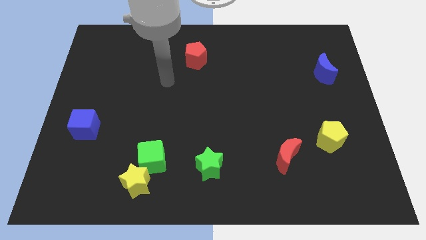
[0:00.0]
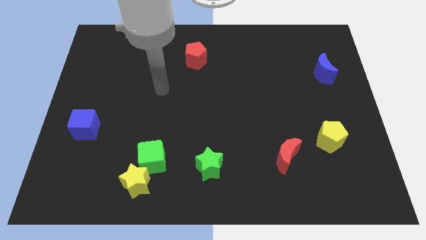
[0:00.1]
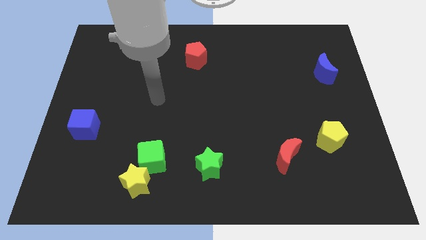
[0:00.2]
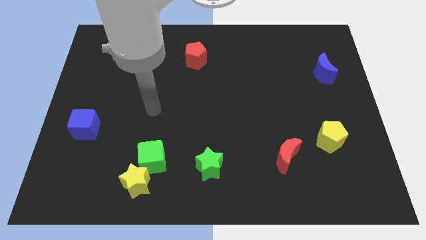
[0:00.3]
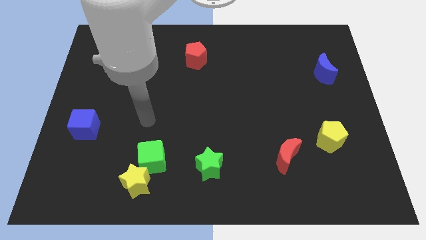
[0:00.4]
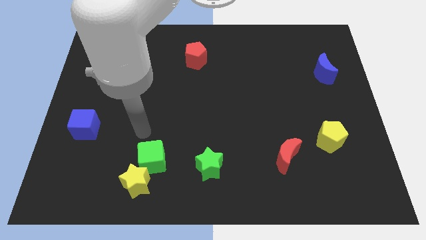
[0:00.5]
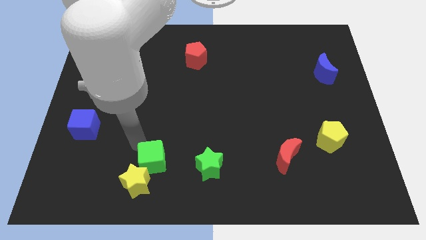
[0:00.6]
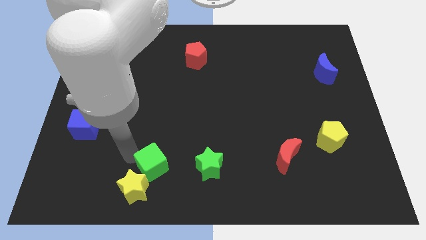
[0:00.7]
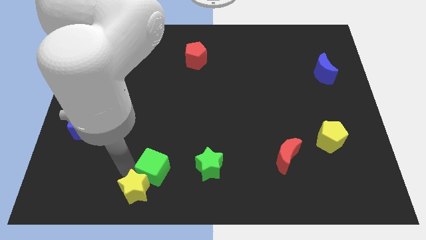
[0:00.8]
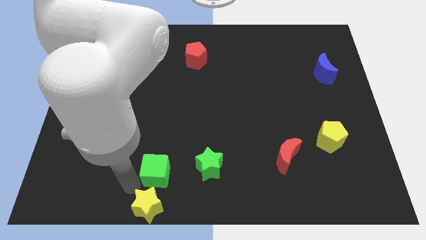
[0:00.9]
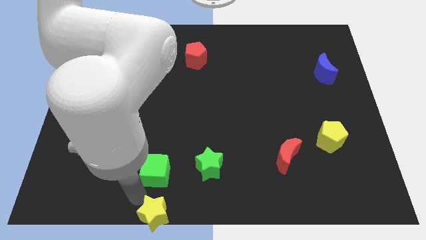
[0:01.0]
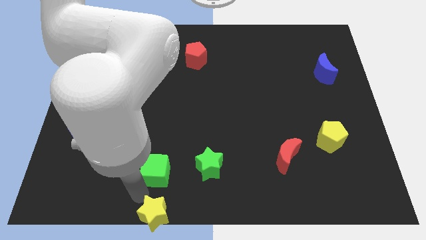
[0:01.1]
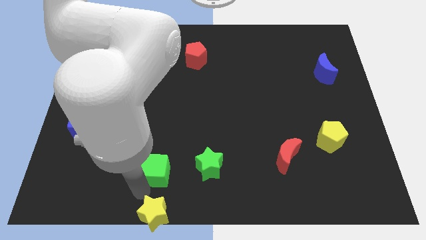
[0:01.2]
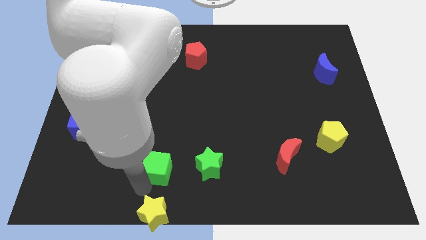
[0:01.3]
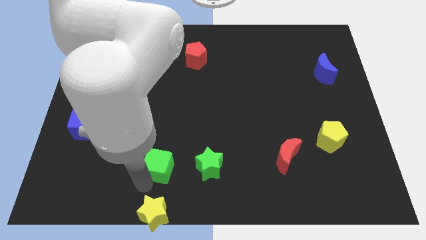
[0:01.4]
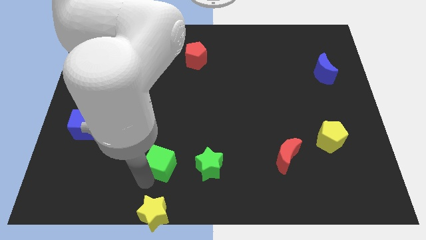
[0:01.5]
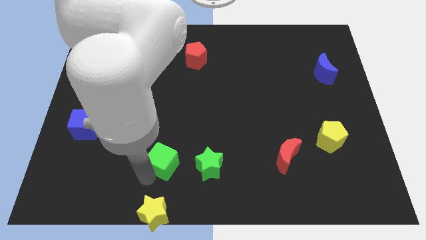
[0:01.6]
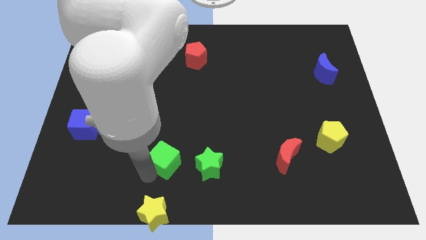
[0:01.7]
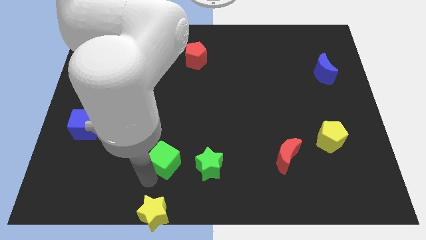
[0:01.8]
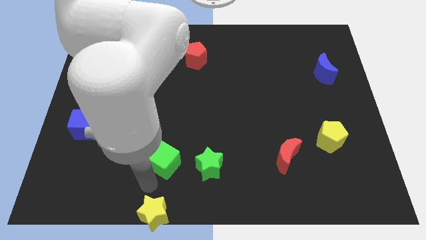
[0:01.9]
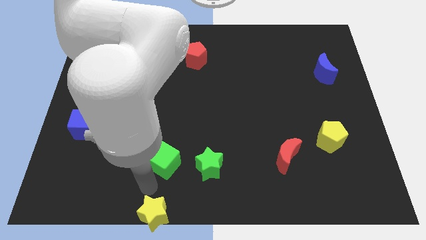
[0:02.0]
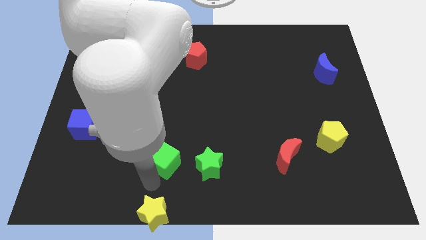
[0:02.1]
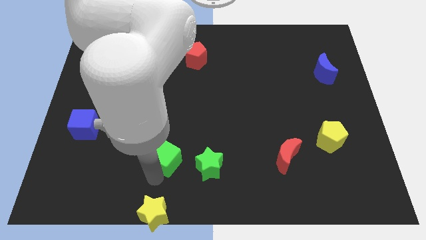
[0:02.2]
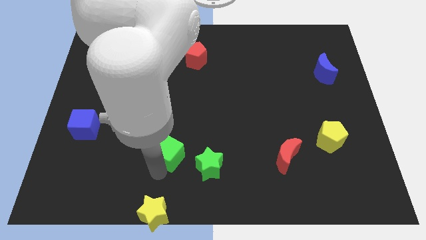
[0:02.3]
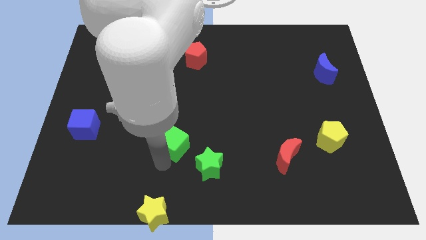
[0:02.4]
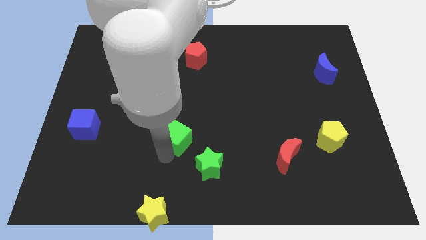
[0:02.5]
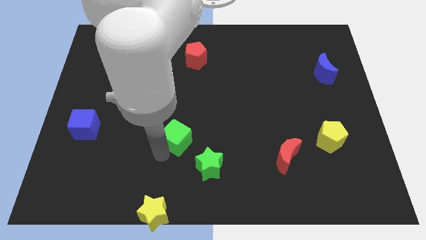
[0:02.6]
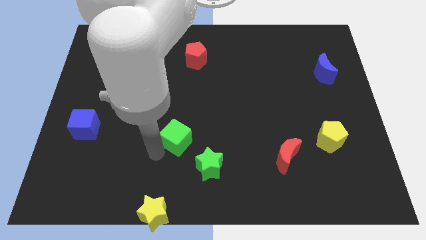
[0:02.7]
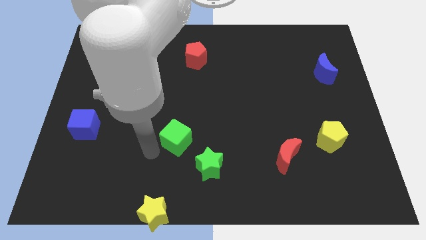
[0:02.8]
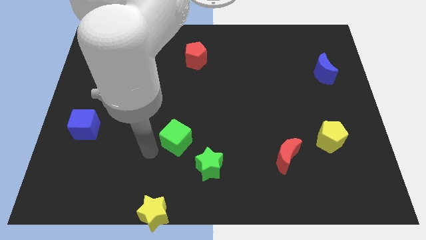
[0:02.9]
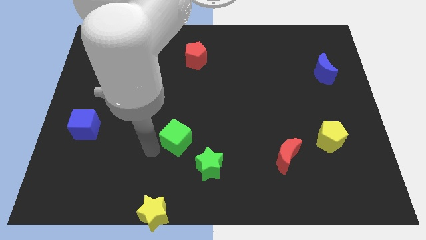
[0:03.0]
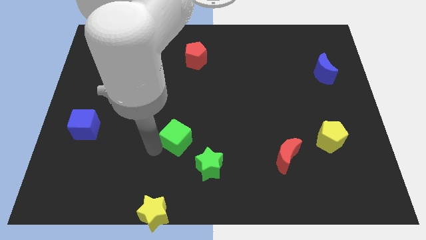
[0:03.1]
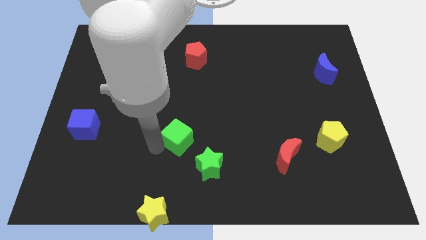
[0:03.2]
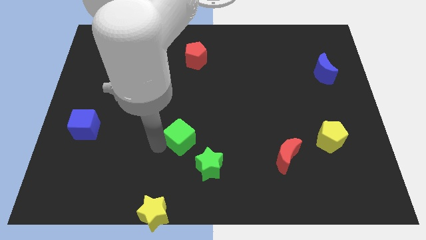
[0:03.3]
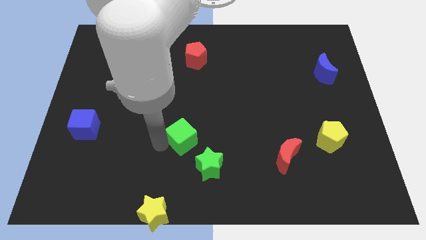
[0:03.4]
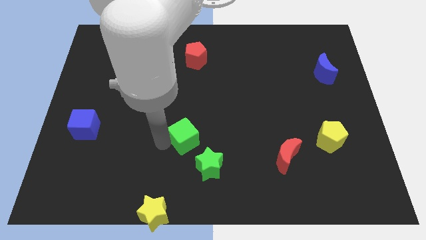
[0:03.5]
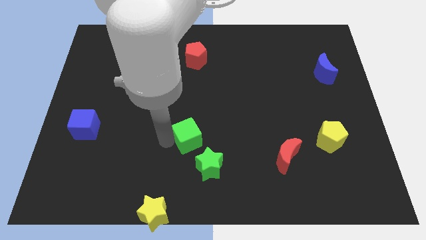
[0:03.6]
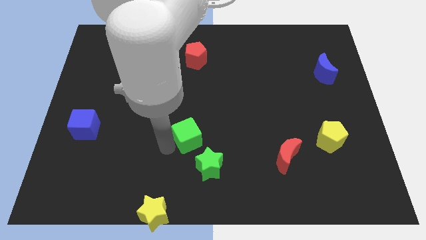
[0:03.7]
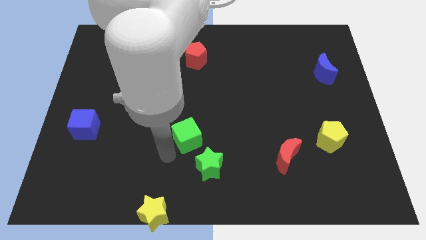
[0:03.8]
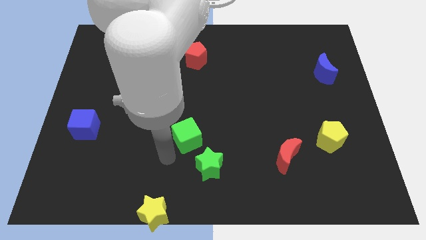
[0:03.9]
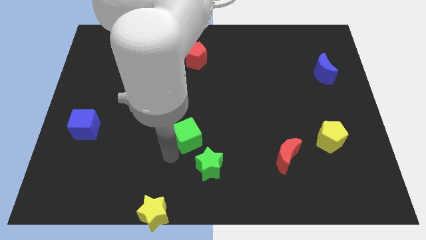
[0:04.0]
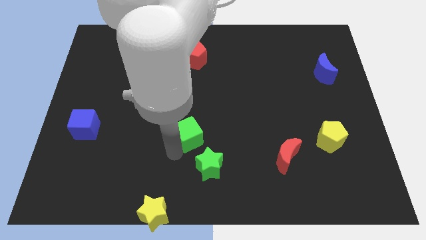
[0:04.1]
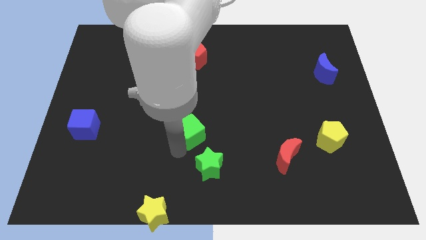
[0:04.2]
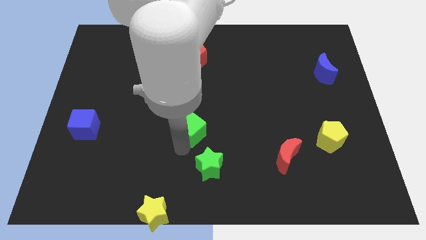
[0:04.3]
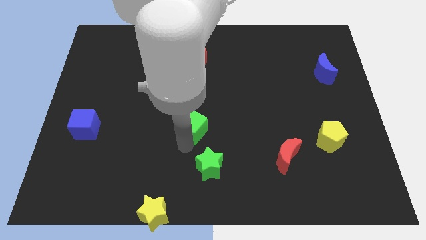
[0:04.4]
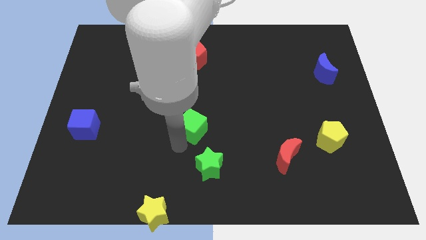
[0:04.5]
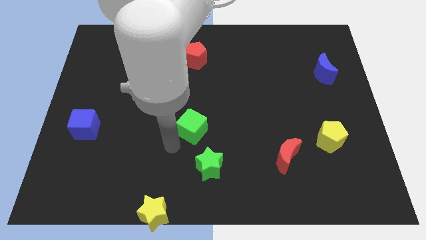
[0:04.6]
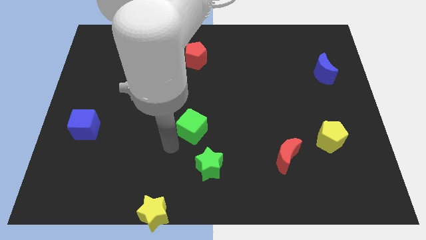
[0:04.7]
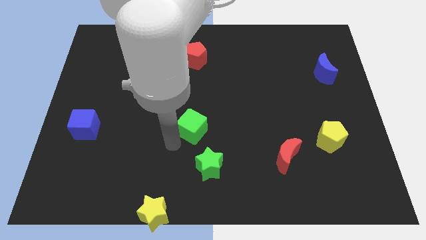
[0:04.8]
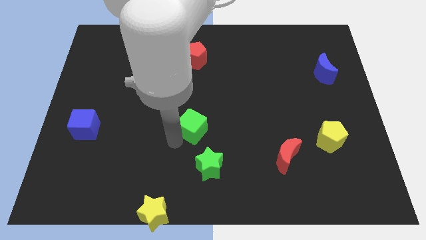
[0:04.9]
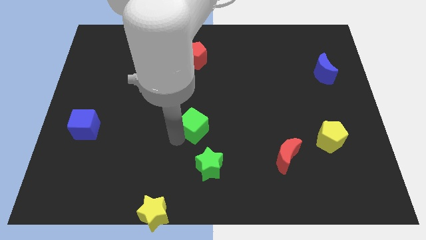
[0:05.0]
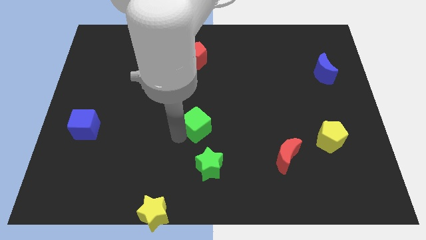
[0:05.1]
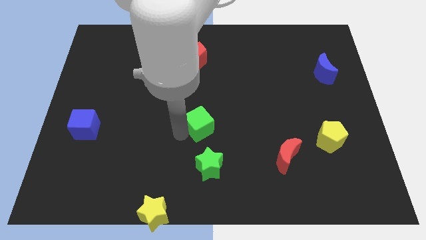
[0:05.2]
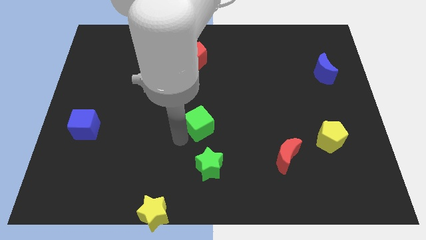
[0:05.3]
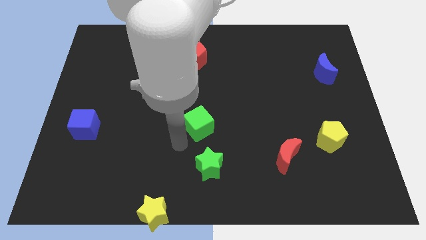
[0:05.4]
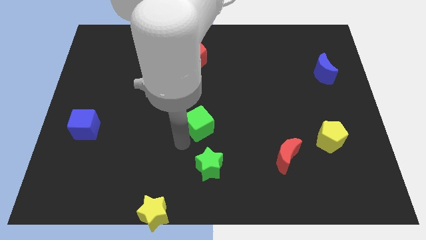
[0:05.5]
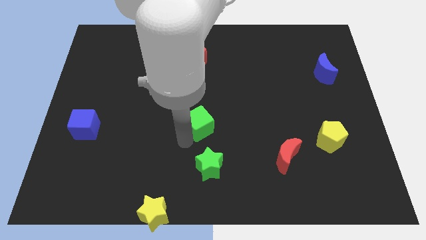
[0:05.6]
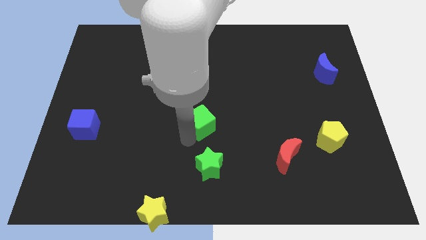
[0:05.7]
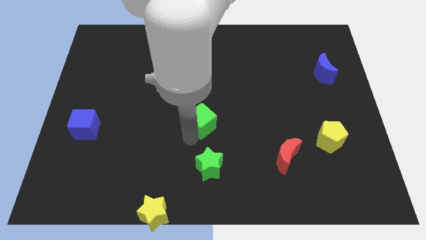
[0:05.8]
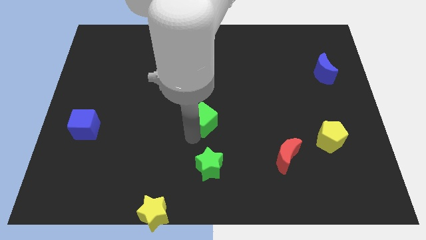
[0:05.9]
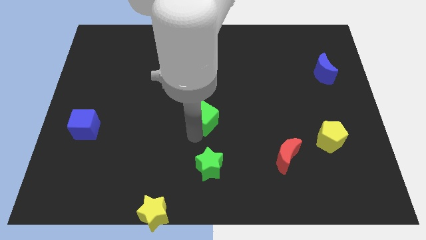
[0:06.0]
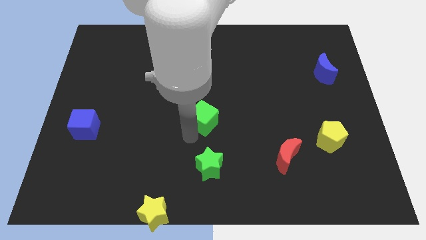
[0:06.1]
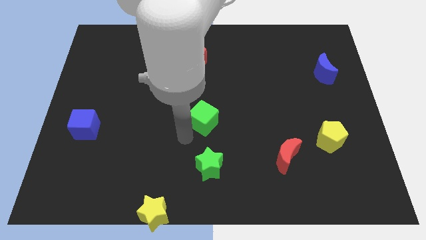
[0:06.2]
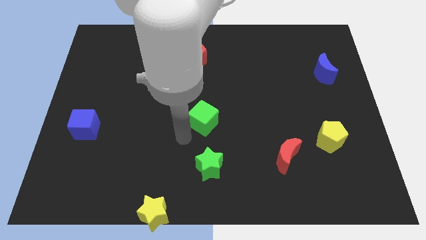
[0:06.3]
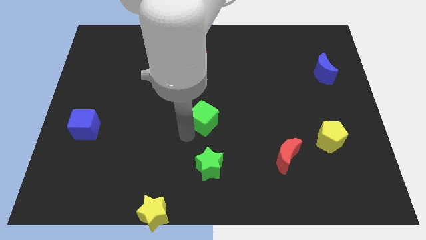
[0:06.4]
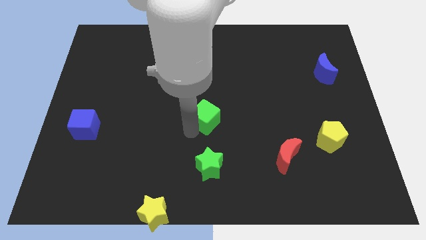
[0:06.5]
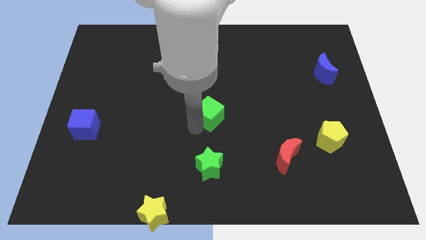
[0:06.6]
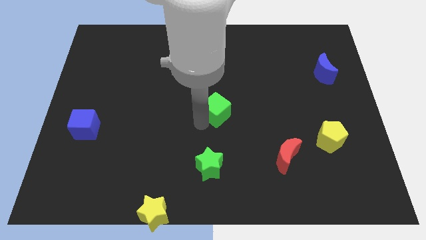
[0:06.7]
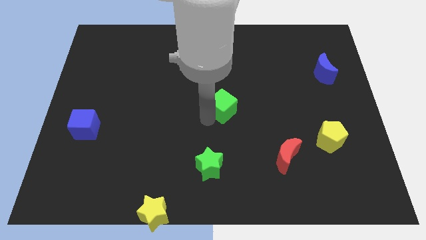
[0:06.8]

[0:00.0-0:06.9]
move the green cube upwards and to the right

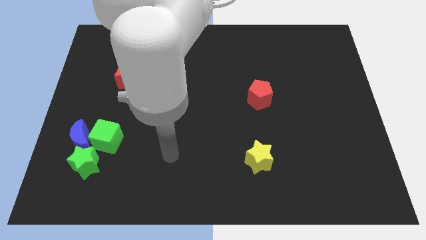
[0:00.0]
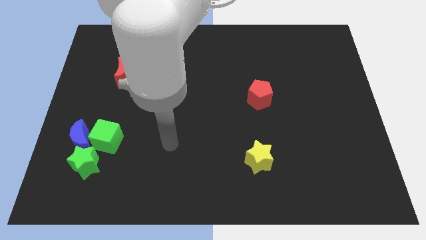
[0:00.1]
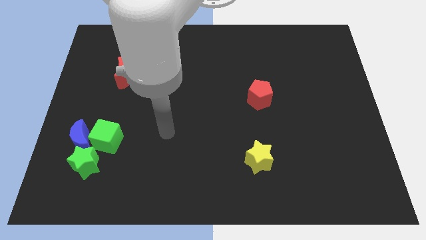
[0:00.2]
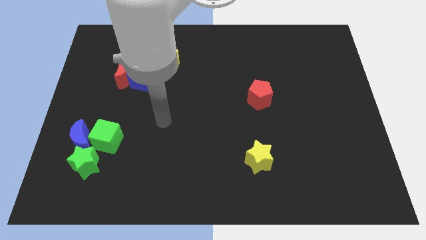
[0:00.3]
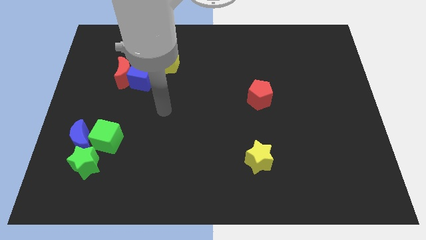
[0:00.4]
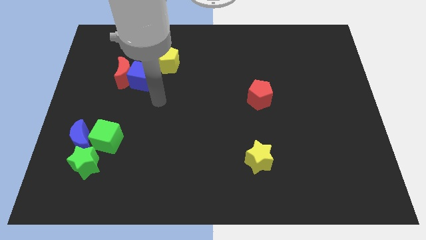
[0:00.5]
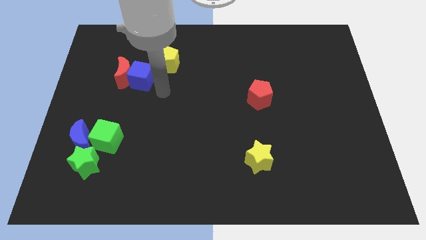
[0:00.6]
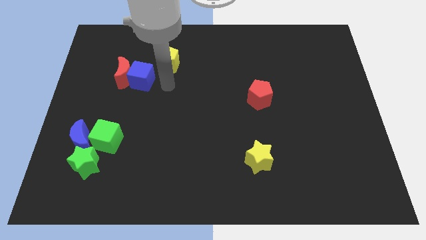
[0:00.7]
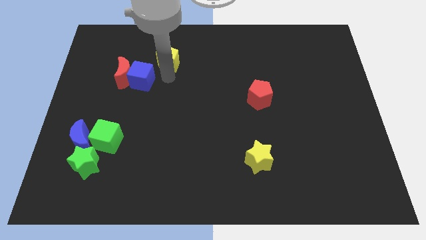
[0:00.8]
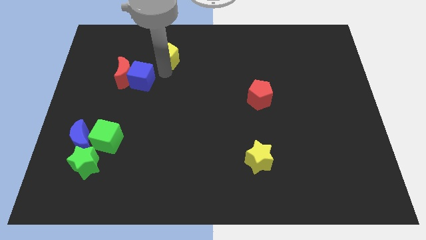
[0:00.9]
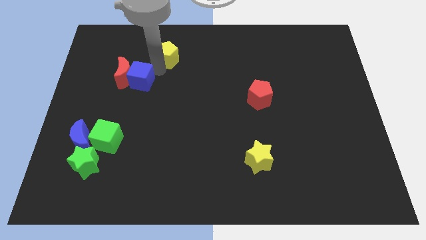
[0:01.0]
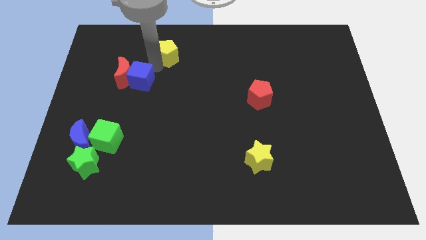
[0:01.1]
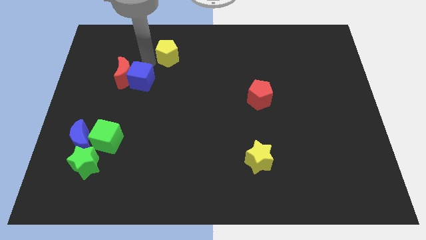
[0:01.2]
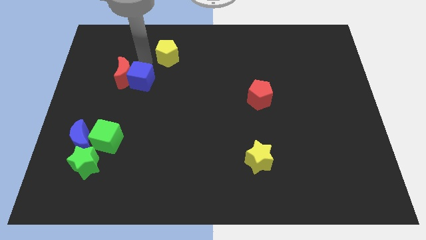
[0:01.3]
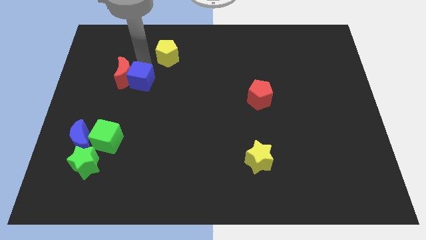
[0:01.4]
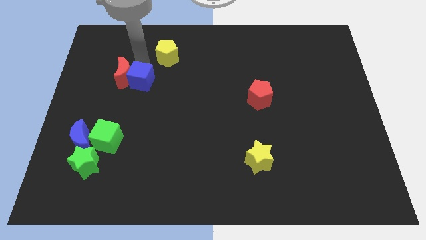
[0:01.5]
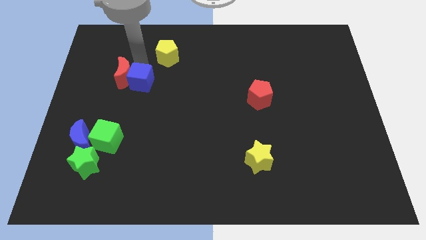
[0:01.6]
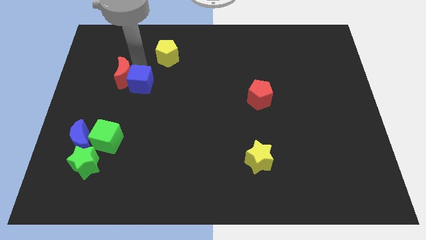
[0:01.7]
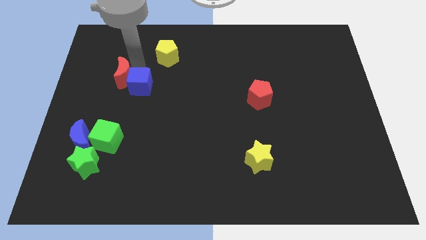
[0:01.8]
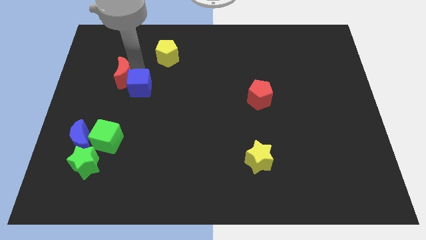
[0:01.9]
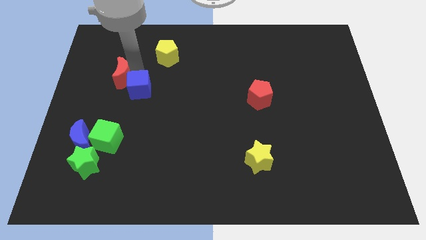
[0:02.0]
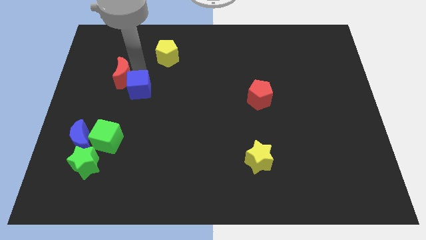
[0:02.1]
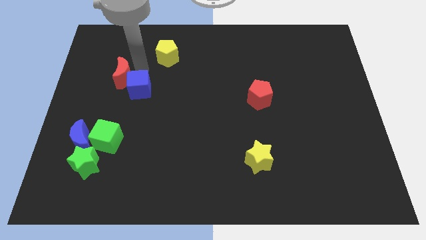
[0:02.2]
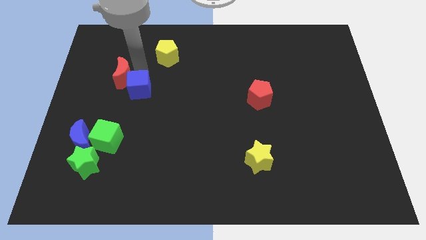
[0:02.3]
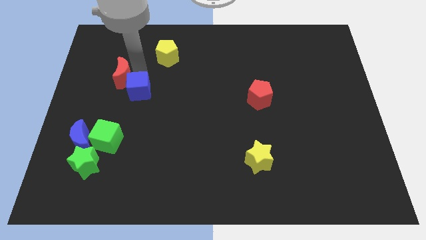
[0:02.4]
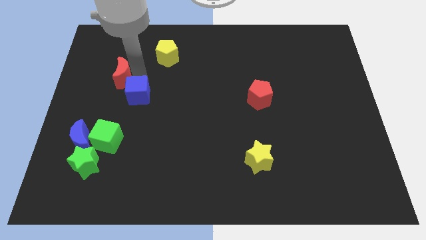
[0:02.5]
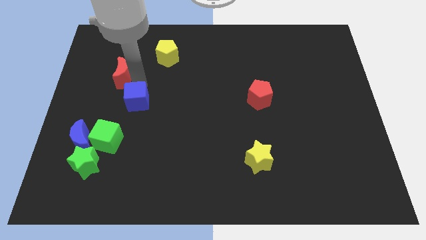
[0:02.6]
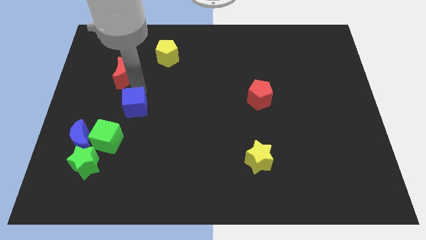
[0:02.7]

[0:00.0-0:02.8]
slightly move the blue cube down
